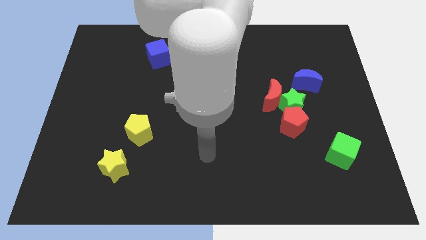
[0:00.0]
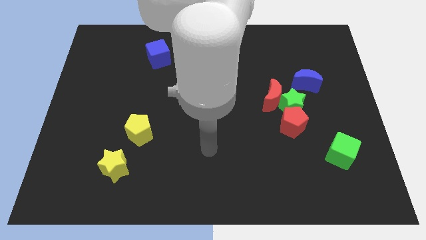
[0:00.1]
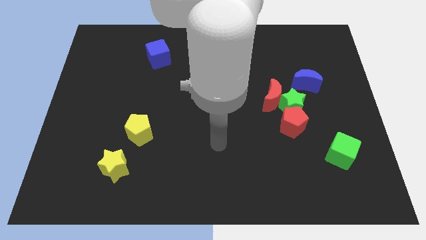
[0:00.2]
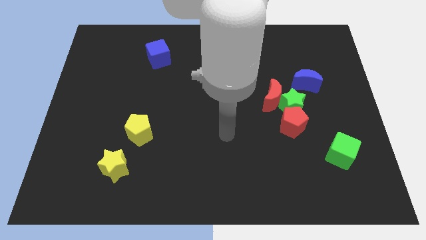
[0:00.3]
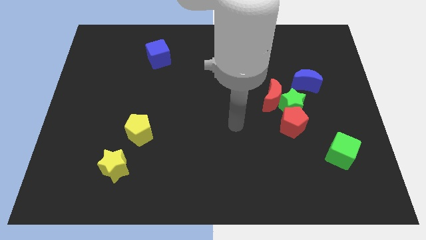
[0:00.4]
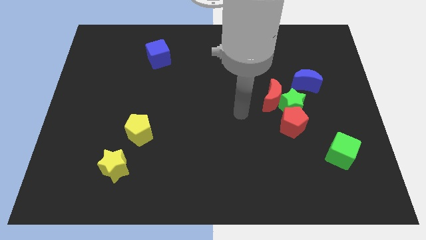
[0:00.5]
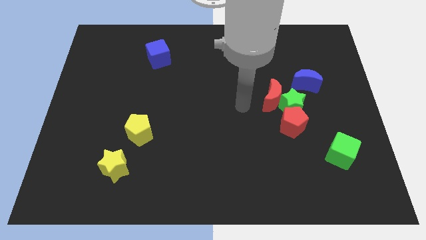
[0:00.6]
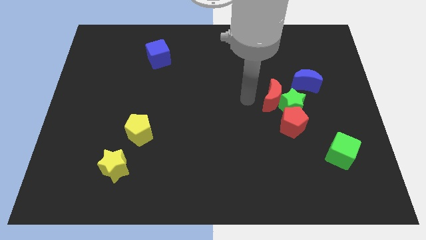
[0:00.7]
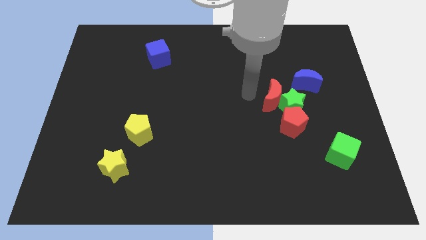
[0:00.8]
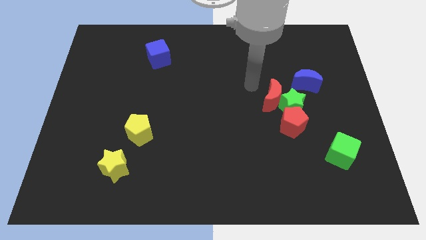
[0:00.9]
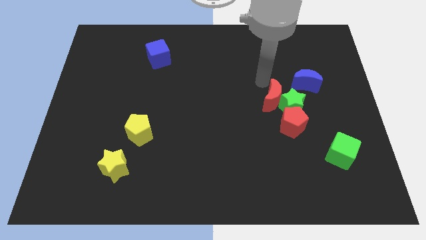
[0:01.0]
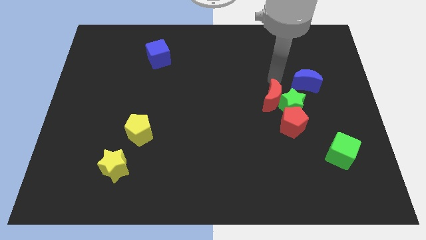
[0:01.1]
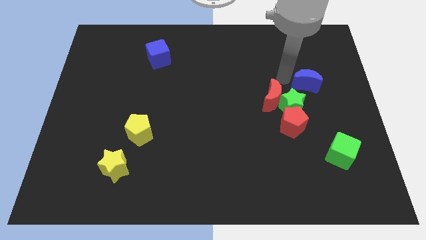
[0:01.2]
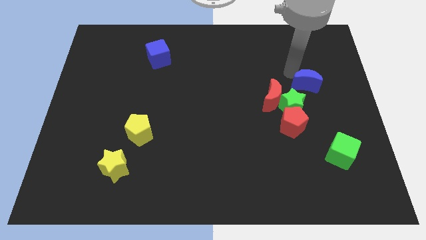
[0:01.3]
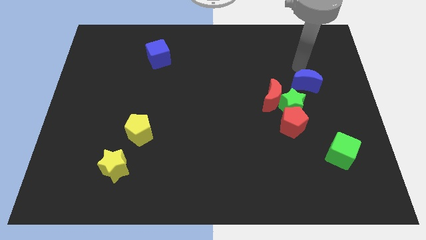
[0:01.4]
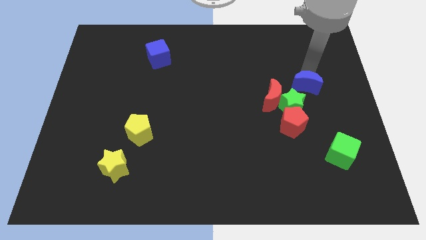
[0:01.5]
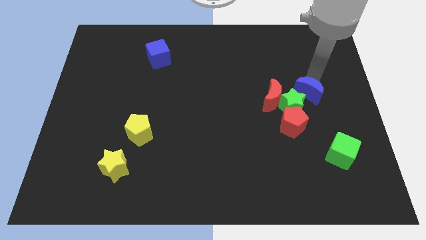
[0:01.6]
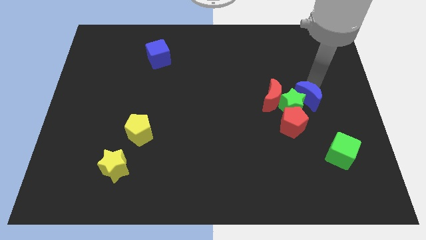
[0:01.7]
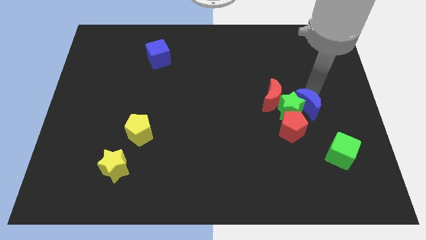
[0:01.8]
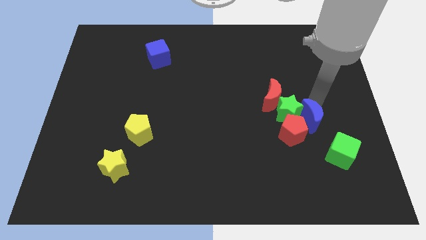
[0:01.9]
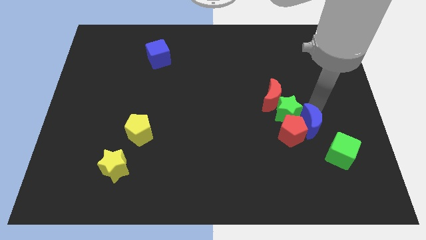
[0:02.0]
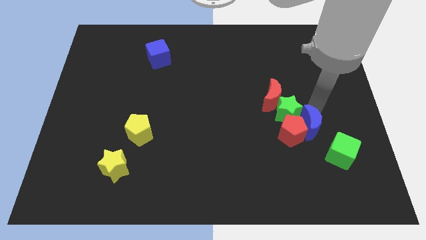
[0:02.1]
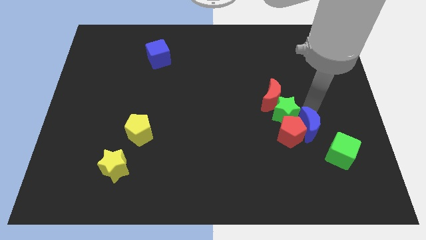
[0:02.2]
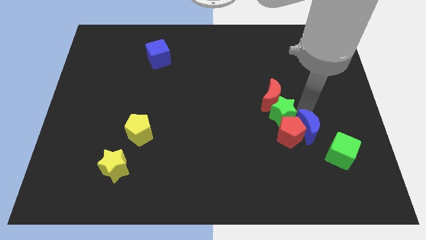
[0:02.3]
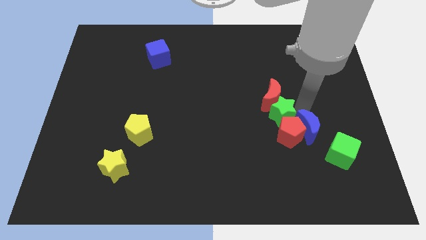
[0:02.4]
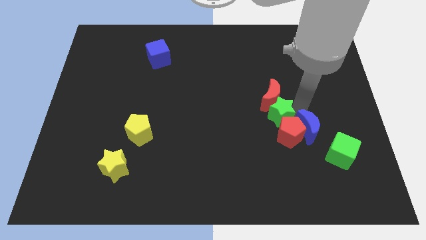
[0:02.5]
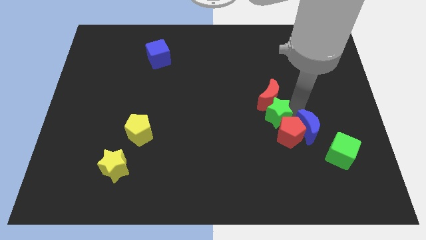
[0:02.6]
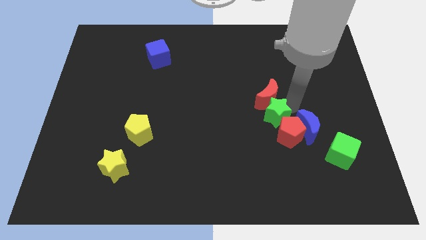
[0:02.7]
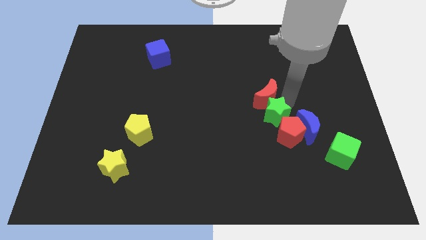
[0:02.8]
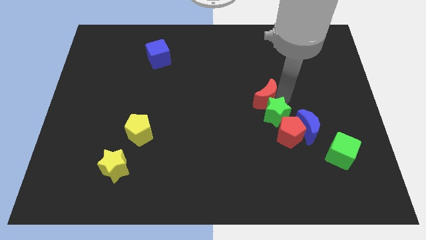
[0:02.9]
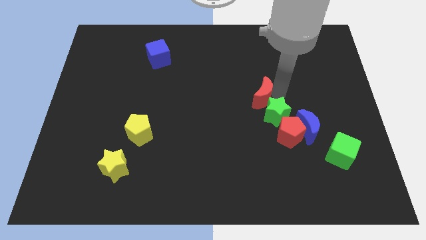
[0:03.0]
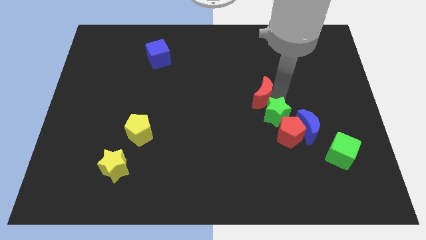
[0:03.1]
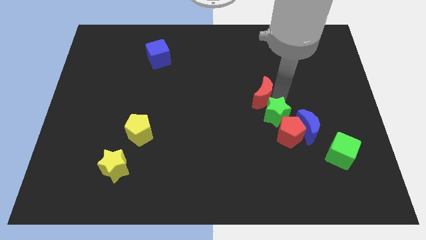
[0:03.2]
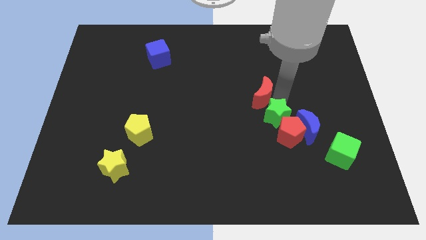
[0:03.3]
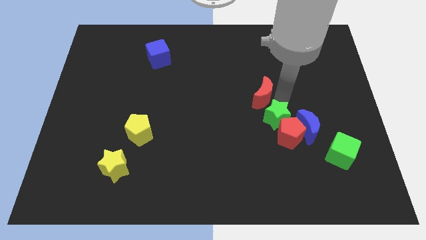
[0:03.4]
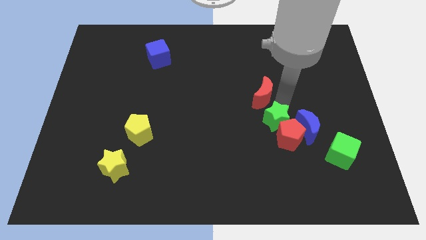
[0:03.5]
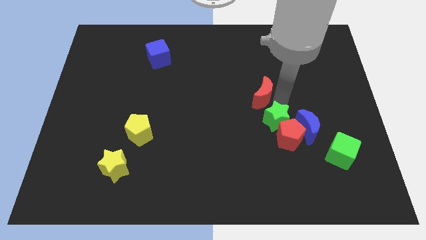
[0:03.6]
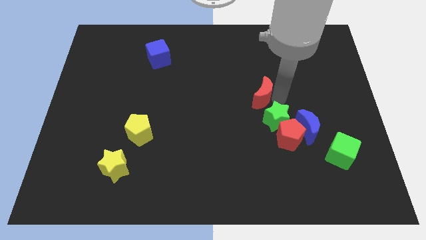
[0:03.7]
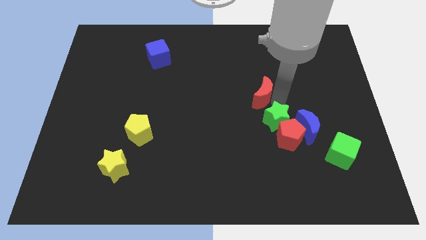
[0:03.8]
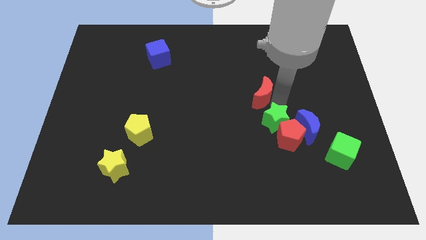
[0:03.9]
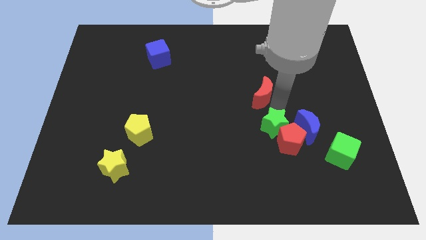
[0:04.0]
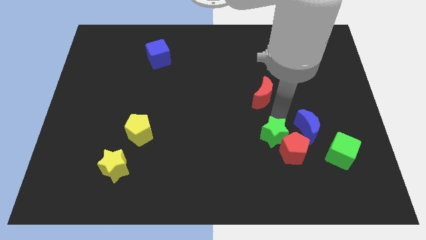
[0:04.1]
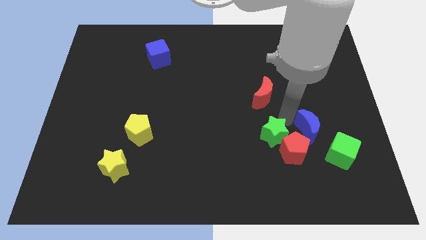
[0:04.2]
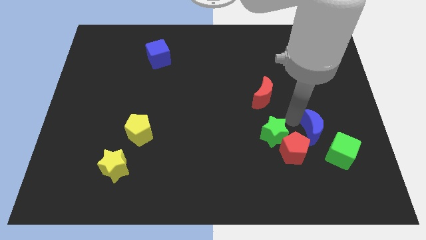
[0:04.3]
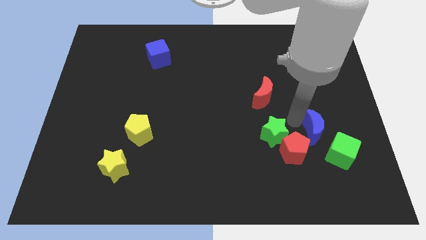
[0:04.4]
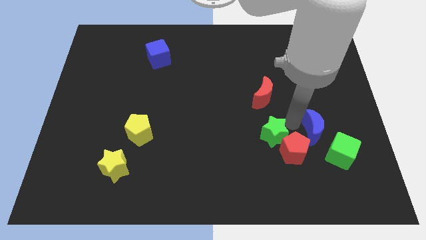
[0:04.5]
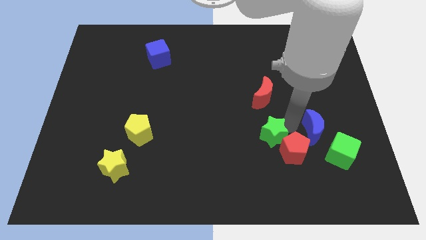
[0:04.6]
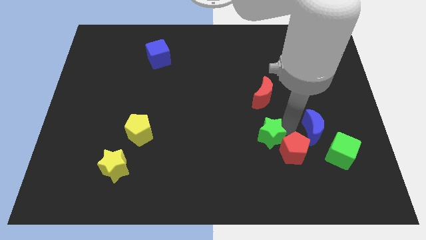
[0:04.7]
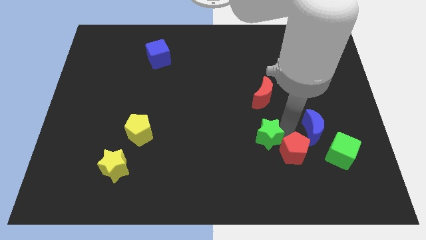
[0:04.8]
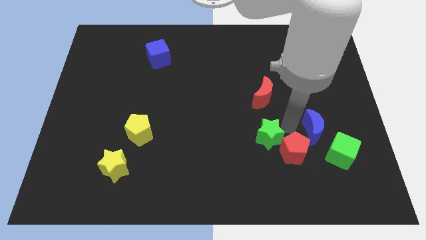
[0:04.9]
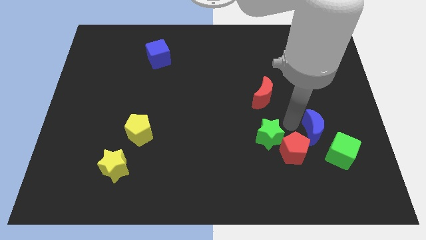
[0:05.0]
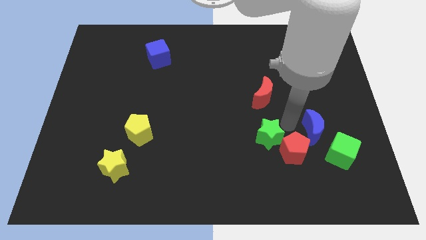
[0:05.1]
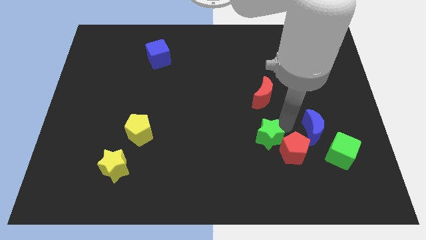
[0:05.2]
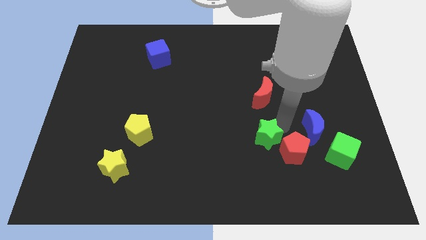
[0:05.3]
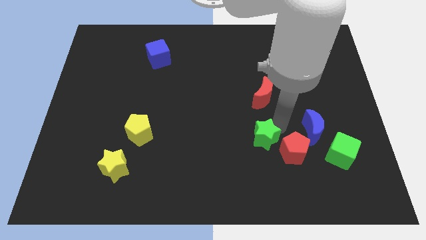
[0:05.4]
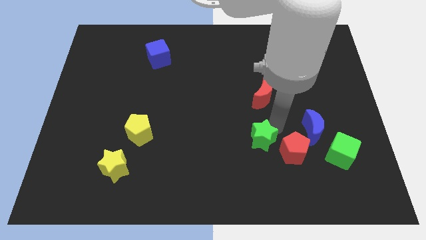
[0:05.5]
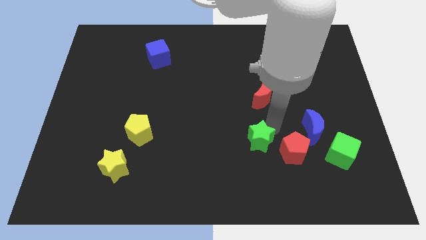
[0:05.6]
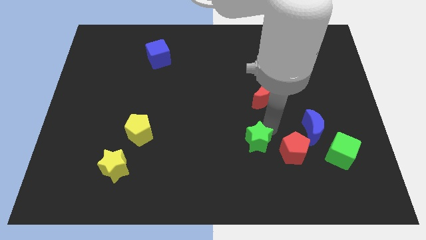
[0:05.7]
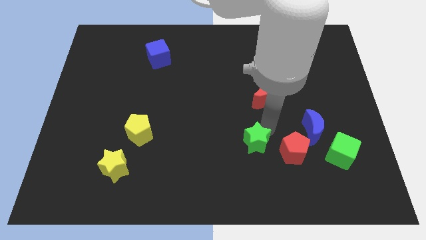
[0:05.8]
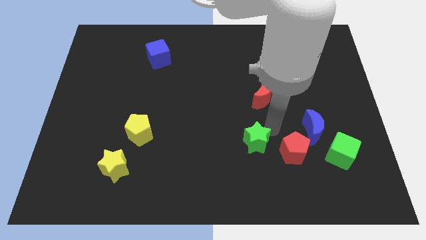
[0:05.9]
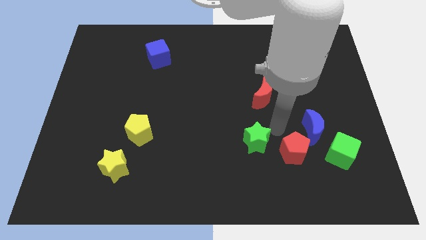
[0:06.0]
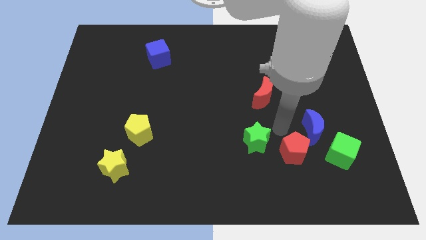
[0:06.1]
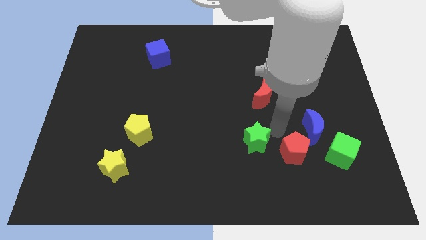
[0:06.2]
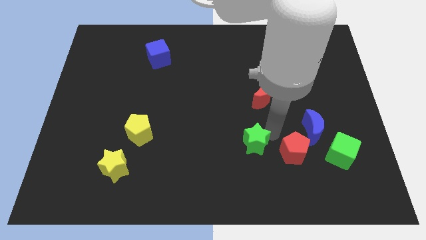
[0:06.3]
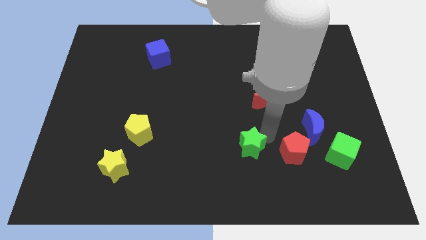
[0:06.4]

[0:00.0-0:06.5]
separate the green star from the group of blocks

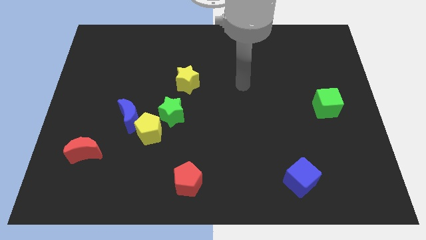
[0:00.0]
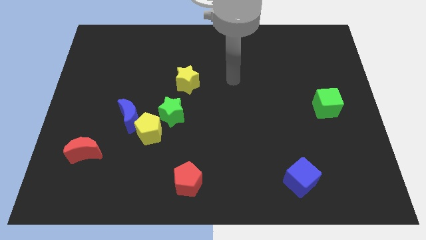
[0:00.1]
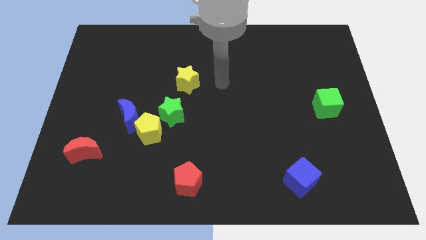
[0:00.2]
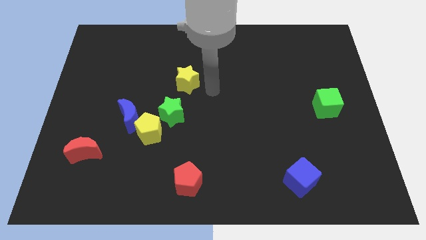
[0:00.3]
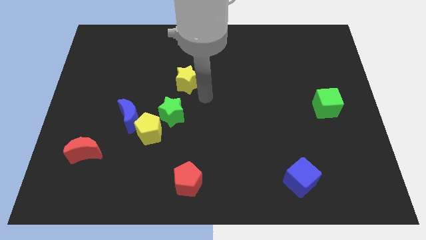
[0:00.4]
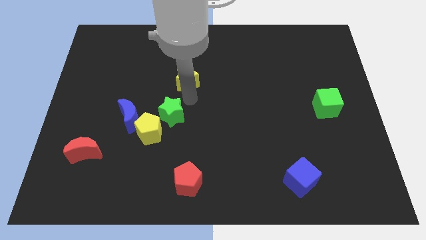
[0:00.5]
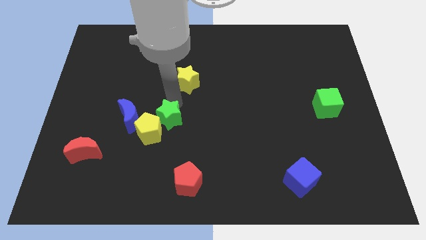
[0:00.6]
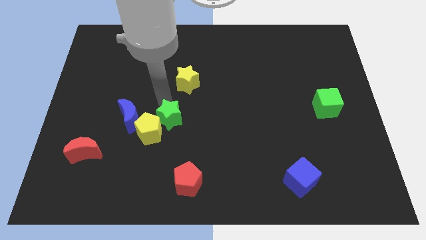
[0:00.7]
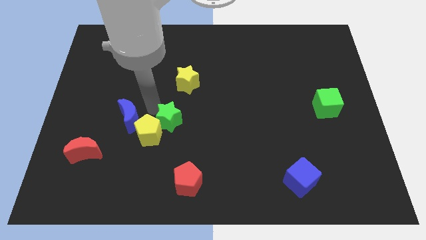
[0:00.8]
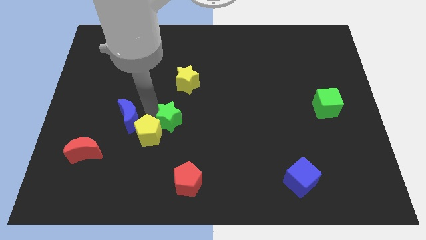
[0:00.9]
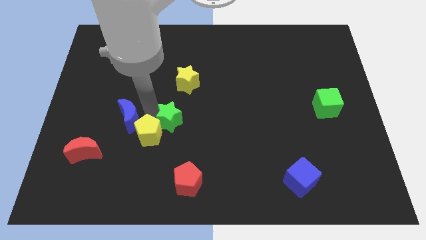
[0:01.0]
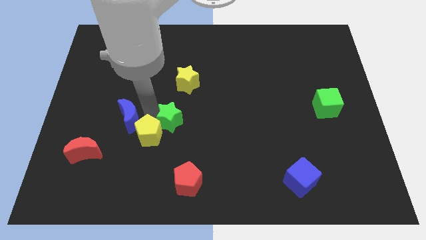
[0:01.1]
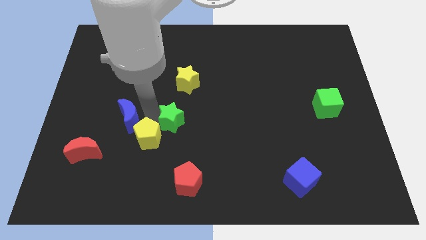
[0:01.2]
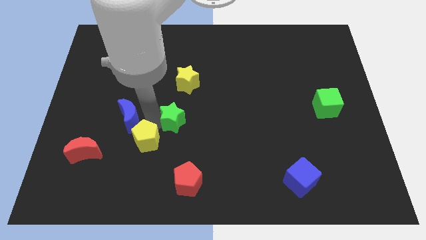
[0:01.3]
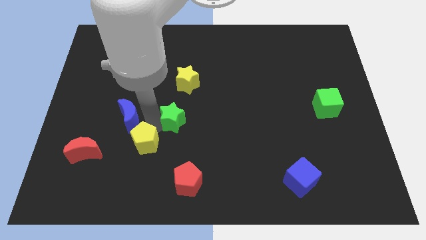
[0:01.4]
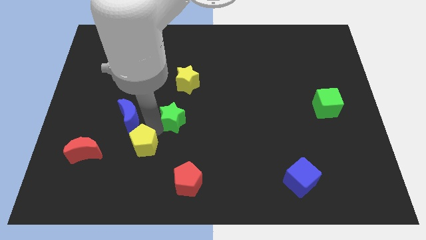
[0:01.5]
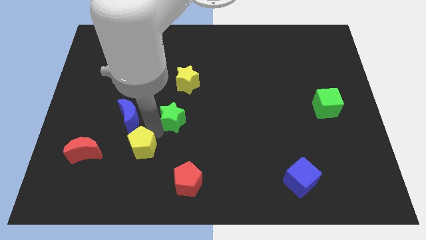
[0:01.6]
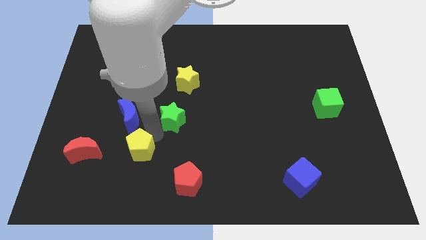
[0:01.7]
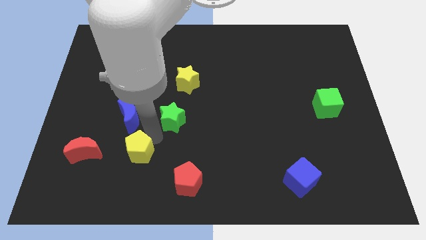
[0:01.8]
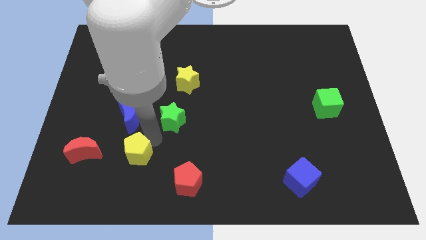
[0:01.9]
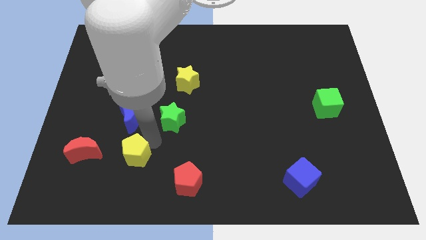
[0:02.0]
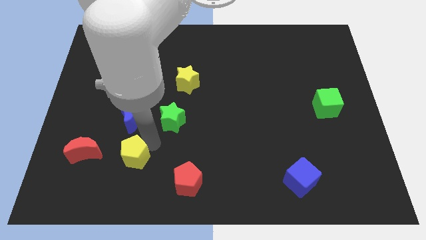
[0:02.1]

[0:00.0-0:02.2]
move the yellow pentagon away from the blue moon and green star

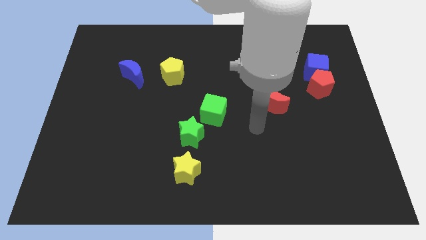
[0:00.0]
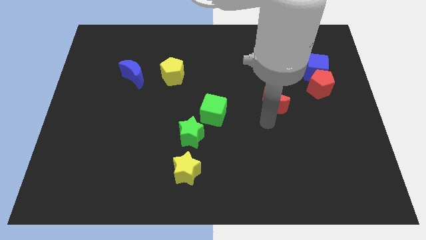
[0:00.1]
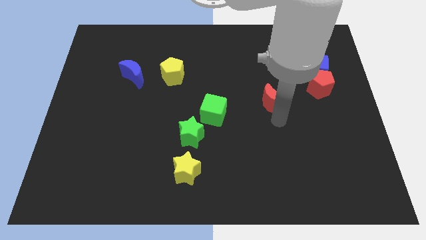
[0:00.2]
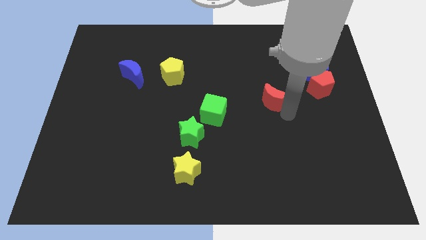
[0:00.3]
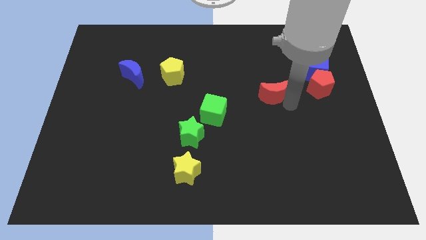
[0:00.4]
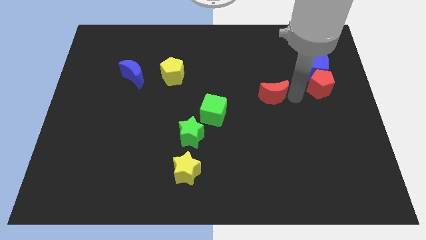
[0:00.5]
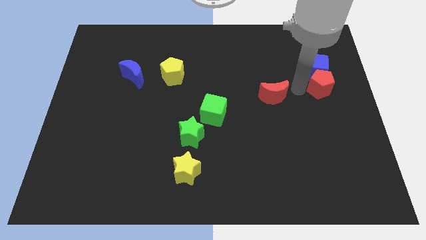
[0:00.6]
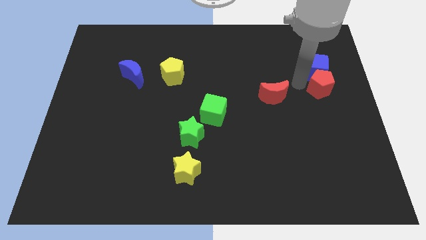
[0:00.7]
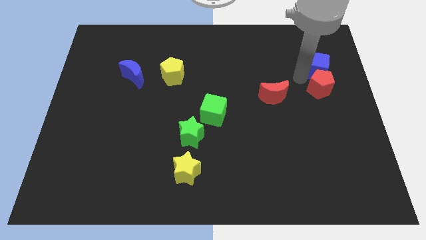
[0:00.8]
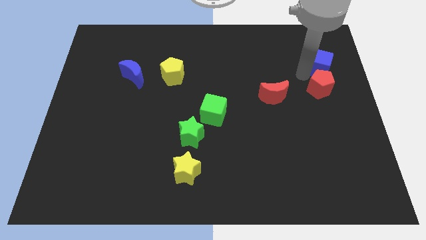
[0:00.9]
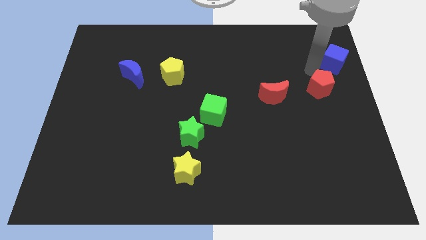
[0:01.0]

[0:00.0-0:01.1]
move the red pentagon away from the blue cube
